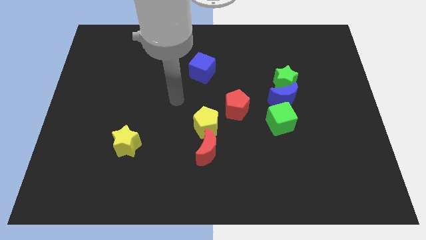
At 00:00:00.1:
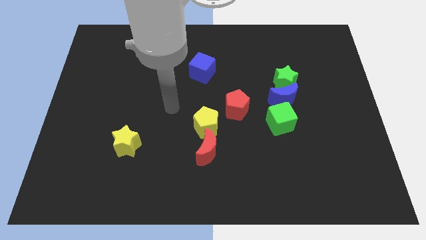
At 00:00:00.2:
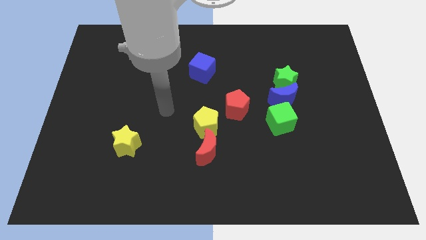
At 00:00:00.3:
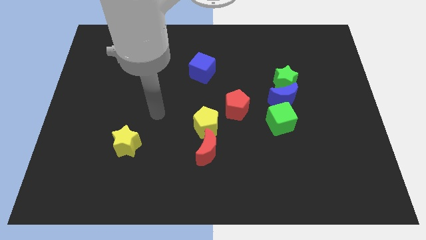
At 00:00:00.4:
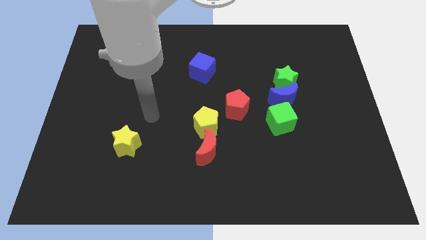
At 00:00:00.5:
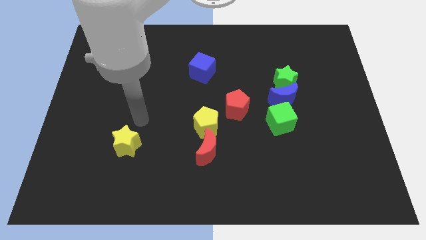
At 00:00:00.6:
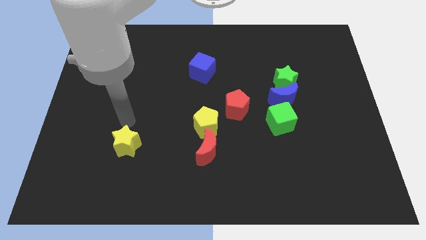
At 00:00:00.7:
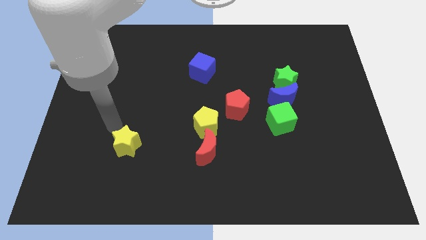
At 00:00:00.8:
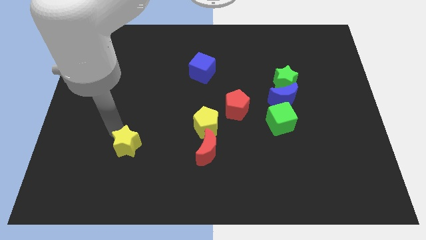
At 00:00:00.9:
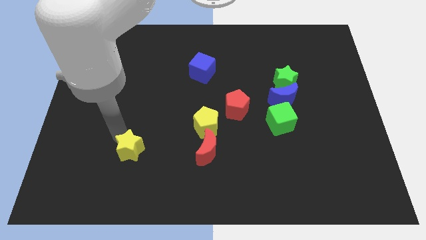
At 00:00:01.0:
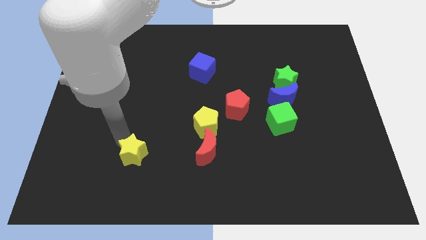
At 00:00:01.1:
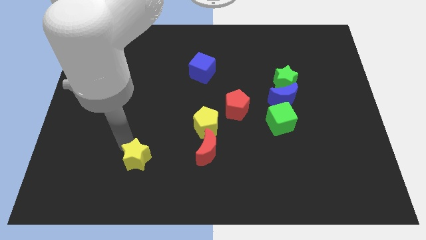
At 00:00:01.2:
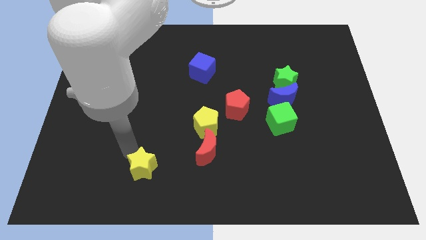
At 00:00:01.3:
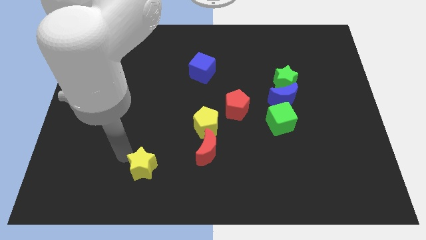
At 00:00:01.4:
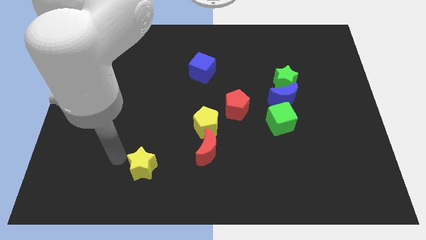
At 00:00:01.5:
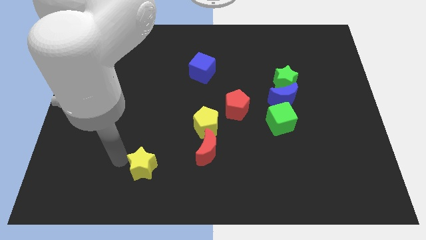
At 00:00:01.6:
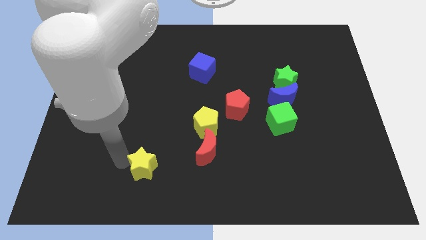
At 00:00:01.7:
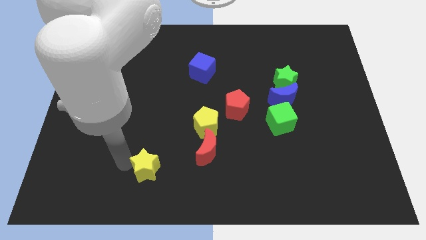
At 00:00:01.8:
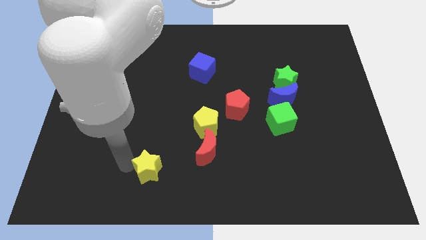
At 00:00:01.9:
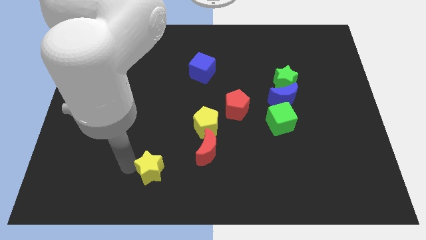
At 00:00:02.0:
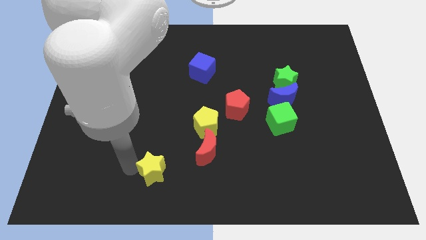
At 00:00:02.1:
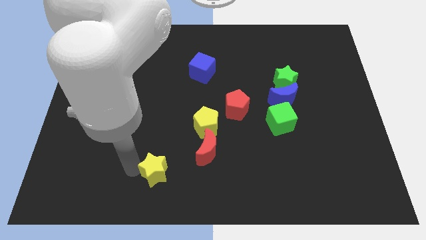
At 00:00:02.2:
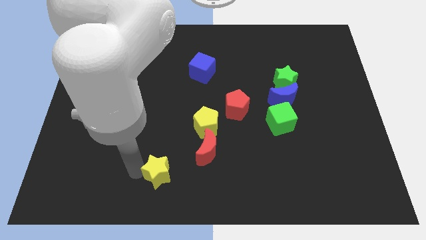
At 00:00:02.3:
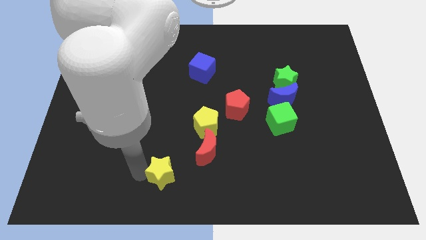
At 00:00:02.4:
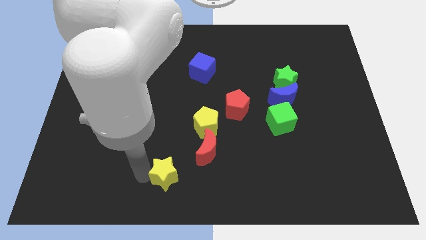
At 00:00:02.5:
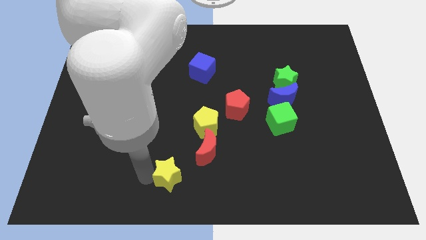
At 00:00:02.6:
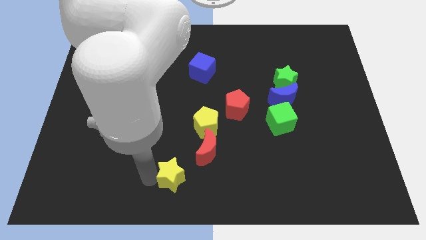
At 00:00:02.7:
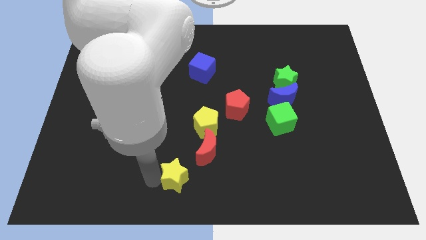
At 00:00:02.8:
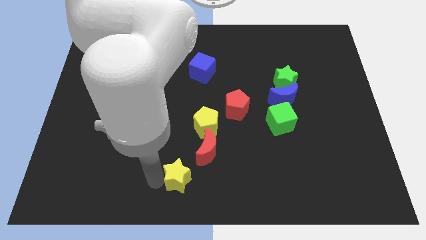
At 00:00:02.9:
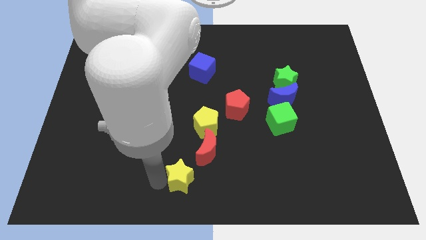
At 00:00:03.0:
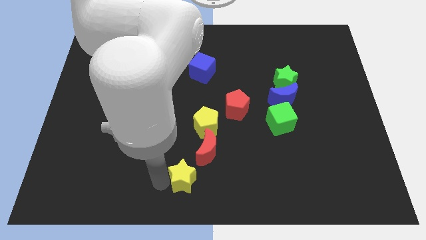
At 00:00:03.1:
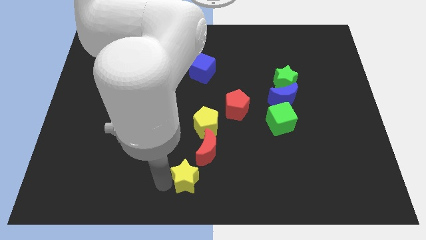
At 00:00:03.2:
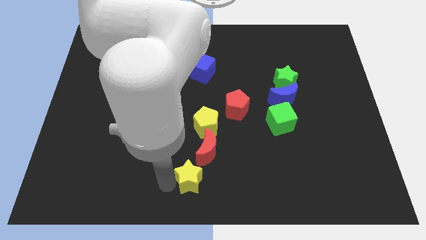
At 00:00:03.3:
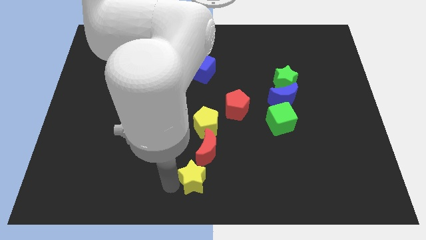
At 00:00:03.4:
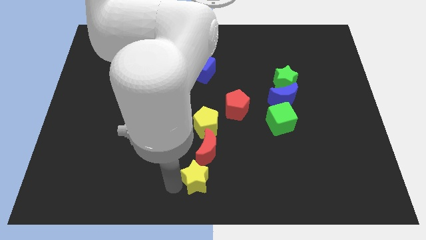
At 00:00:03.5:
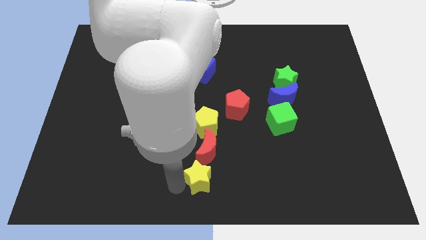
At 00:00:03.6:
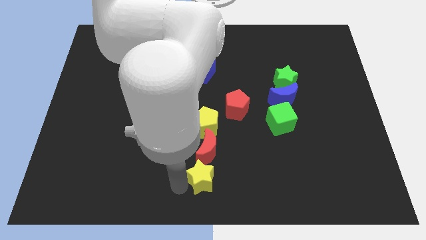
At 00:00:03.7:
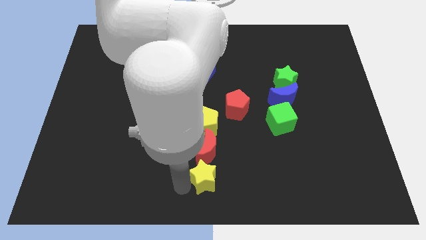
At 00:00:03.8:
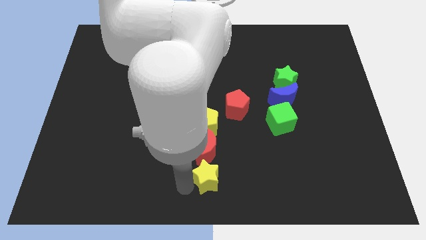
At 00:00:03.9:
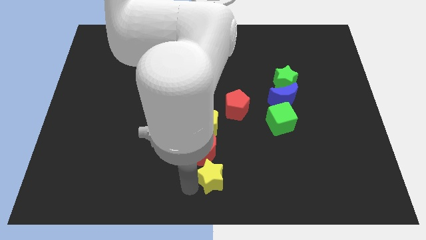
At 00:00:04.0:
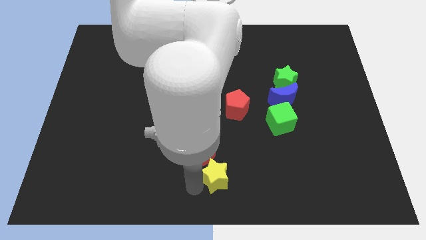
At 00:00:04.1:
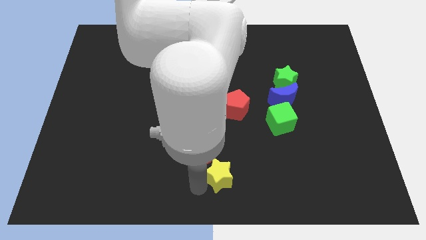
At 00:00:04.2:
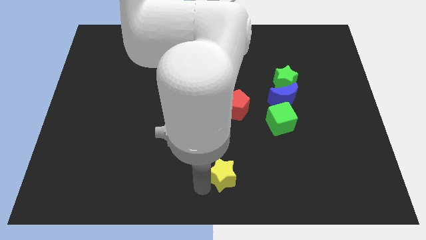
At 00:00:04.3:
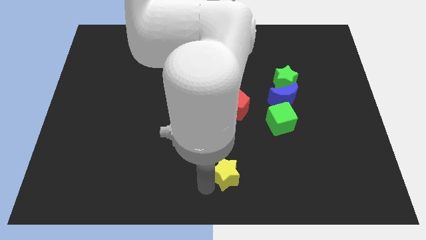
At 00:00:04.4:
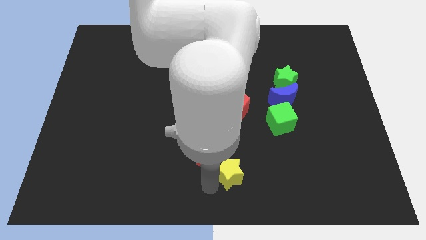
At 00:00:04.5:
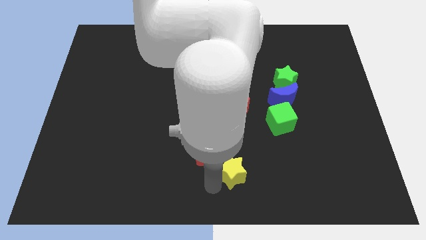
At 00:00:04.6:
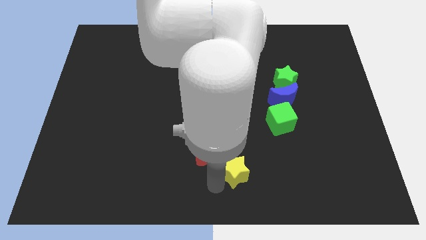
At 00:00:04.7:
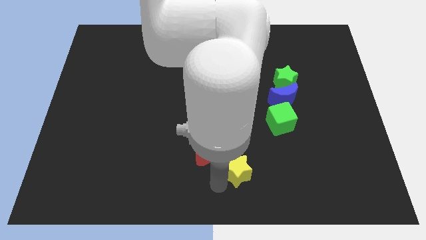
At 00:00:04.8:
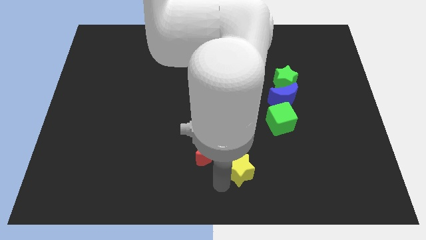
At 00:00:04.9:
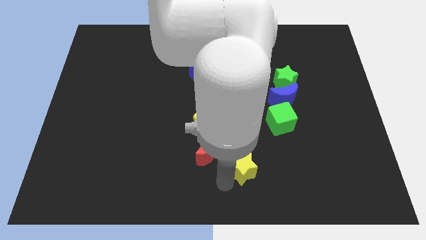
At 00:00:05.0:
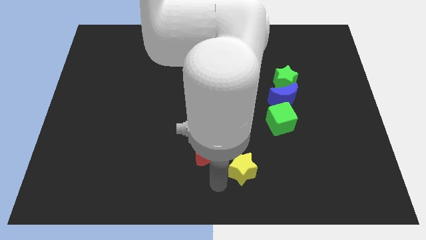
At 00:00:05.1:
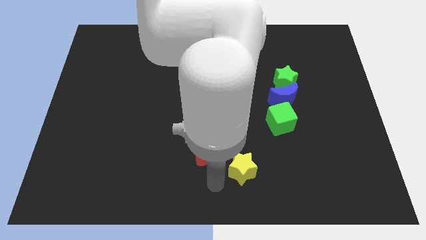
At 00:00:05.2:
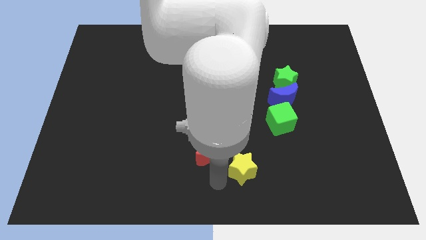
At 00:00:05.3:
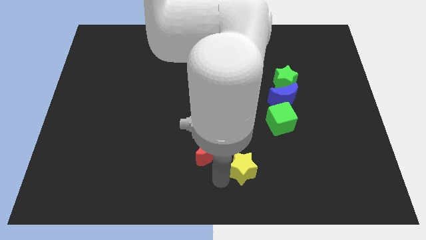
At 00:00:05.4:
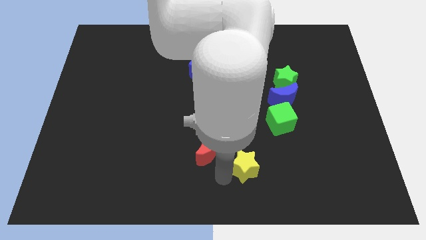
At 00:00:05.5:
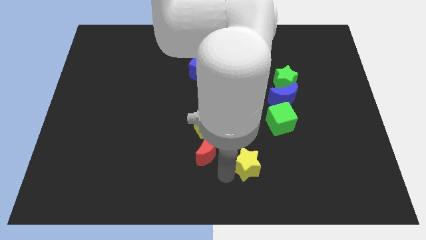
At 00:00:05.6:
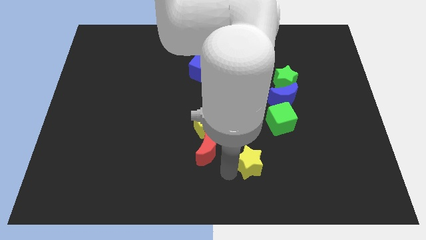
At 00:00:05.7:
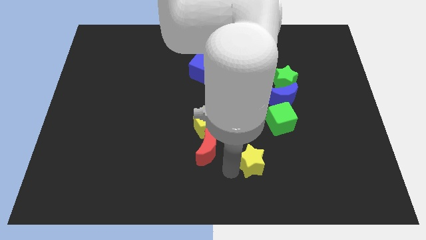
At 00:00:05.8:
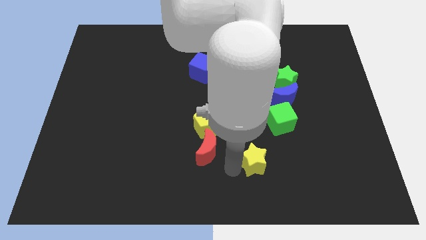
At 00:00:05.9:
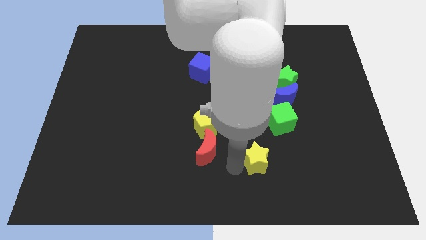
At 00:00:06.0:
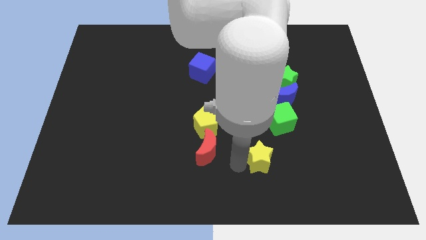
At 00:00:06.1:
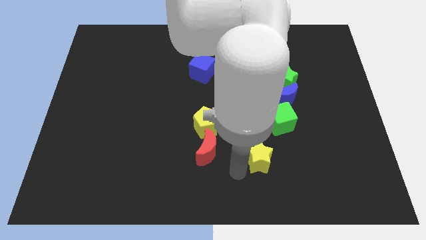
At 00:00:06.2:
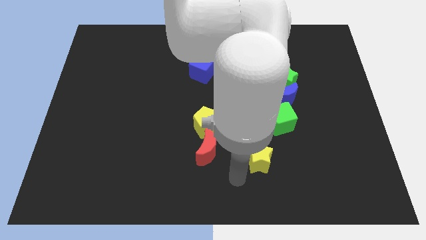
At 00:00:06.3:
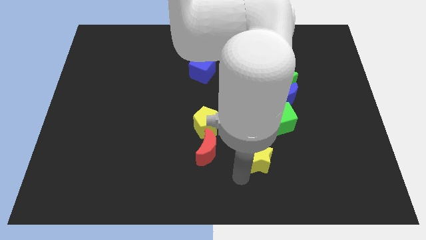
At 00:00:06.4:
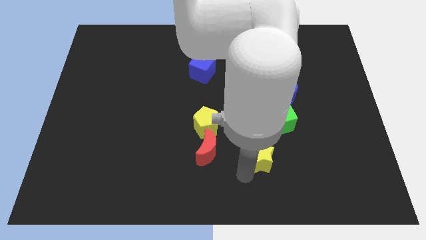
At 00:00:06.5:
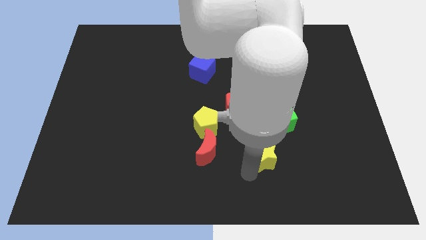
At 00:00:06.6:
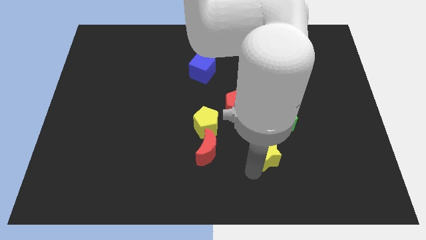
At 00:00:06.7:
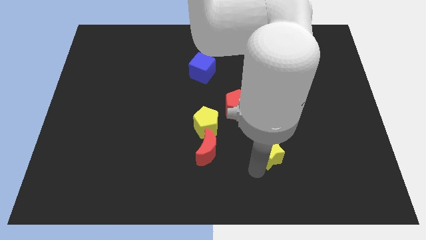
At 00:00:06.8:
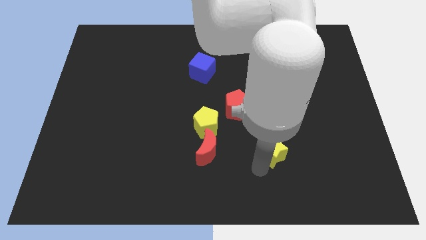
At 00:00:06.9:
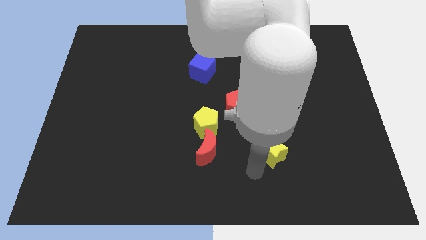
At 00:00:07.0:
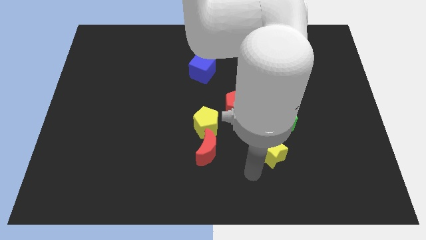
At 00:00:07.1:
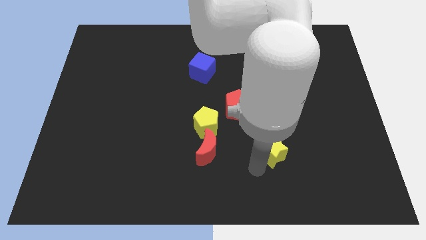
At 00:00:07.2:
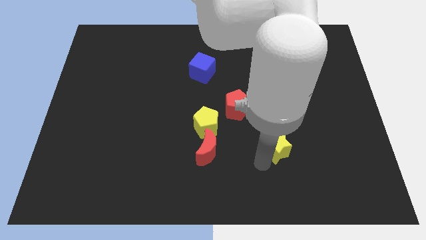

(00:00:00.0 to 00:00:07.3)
slide the yellow star below the blue moon

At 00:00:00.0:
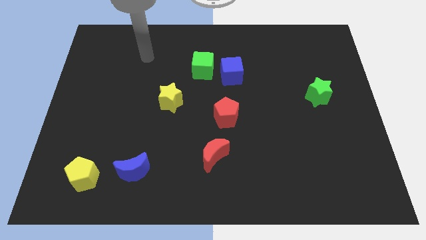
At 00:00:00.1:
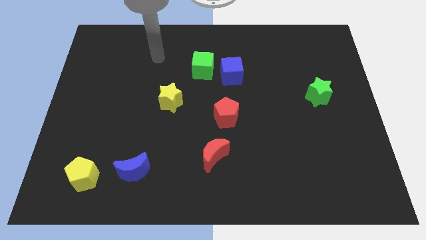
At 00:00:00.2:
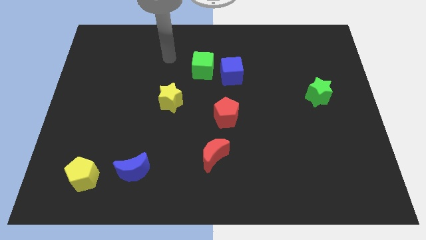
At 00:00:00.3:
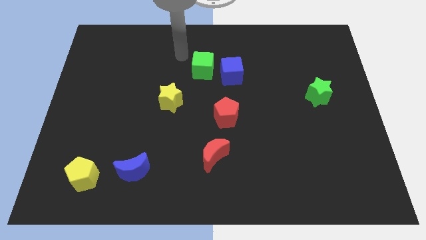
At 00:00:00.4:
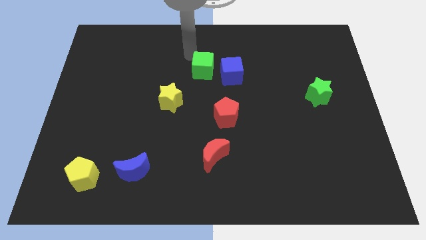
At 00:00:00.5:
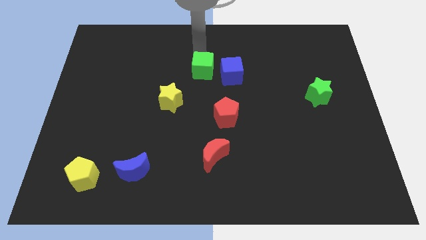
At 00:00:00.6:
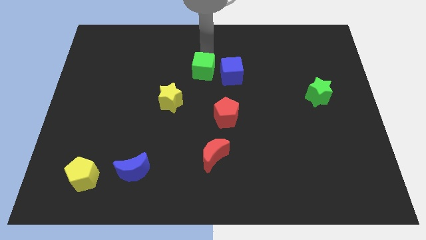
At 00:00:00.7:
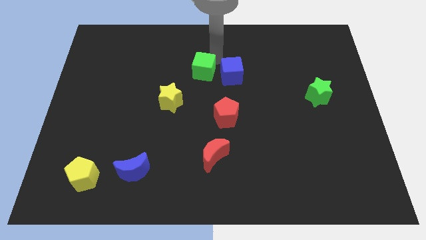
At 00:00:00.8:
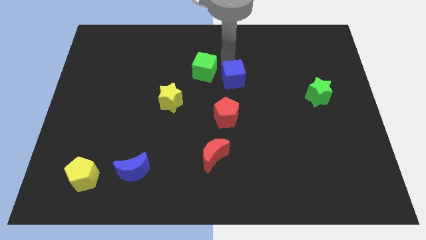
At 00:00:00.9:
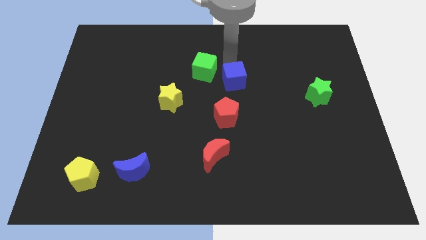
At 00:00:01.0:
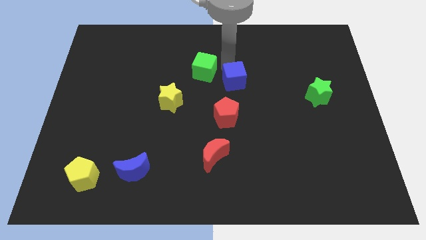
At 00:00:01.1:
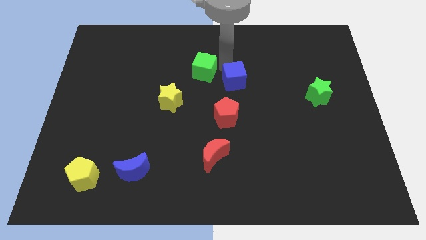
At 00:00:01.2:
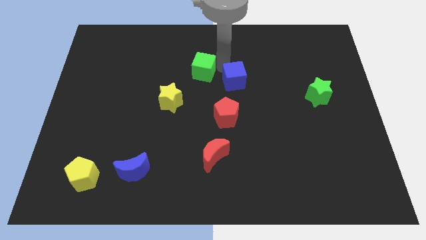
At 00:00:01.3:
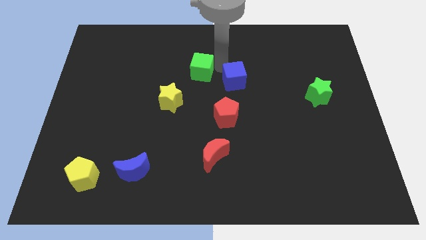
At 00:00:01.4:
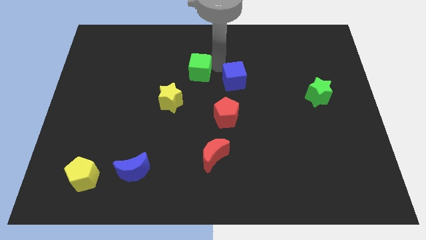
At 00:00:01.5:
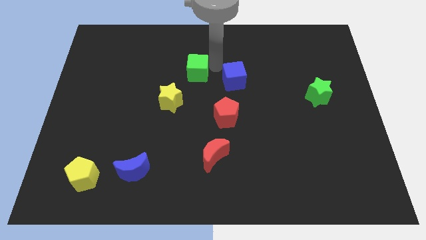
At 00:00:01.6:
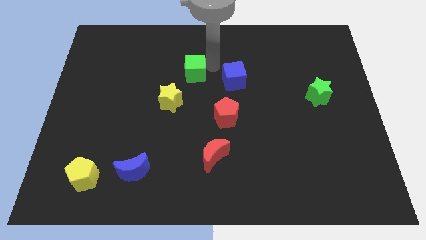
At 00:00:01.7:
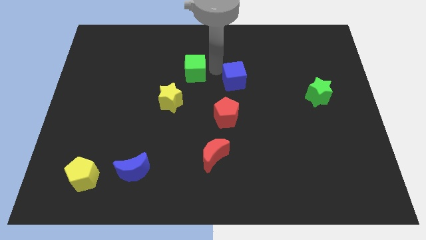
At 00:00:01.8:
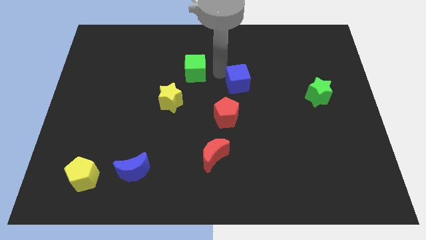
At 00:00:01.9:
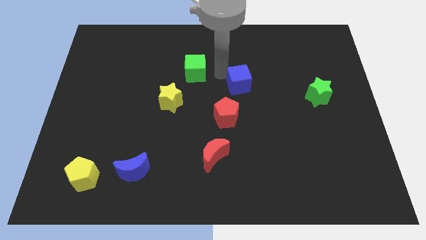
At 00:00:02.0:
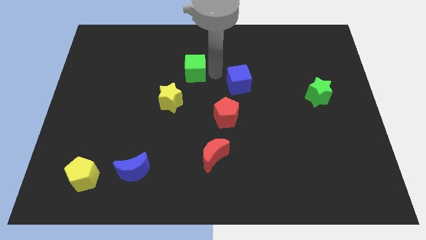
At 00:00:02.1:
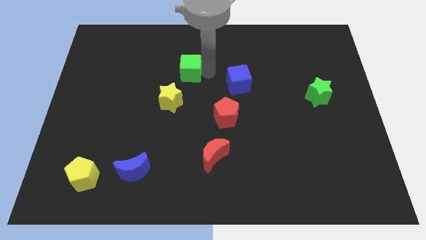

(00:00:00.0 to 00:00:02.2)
put the green cube to the top of the yellow star
